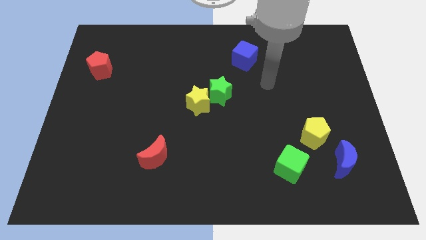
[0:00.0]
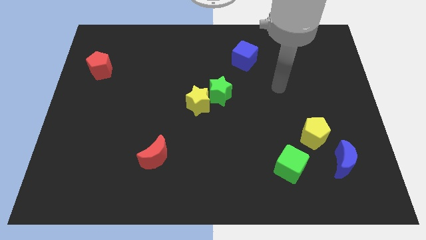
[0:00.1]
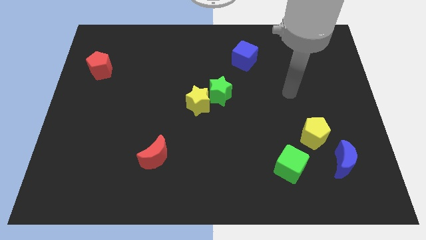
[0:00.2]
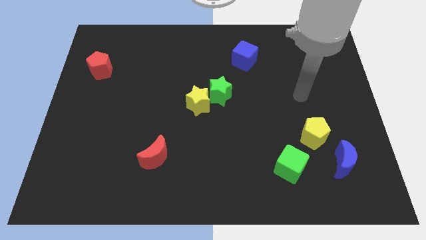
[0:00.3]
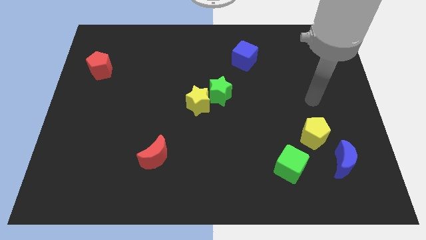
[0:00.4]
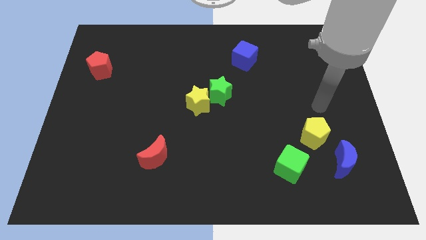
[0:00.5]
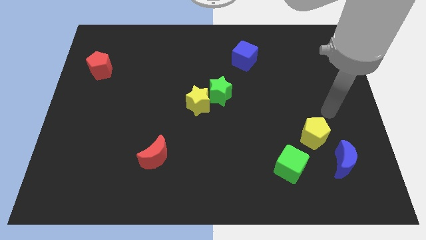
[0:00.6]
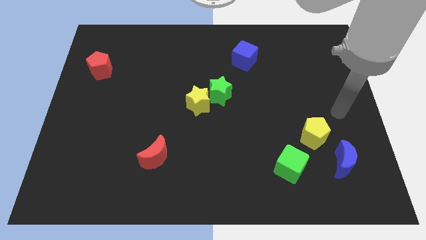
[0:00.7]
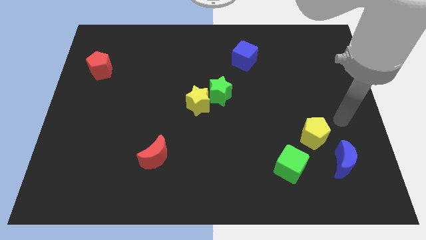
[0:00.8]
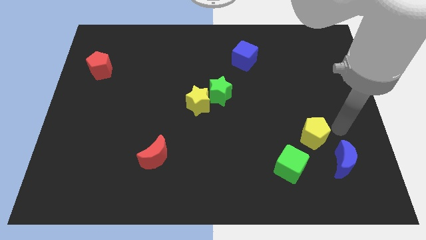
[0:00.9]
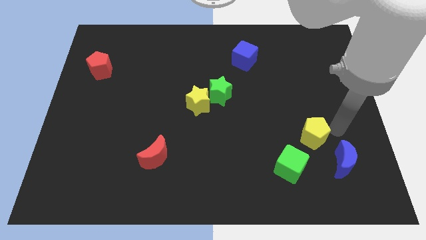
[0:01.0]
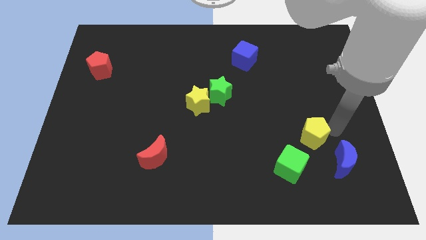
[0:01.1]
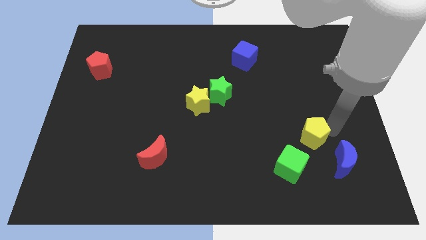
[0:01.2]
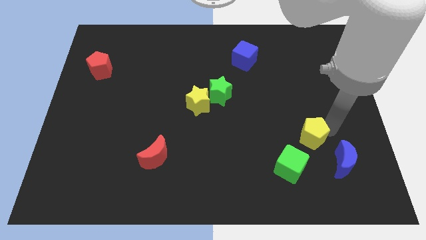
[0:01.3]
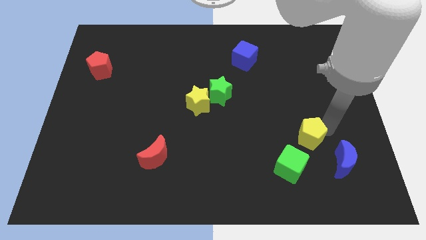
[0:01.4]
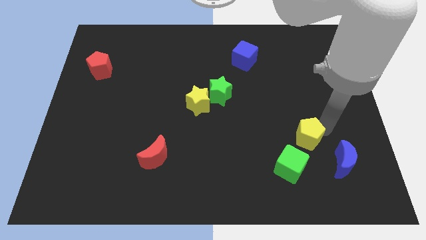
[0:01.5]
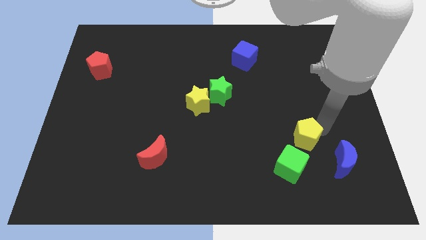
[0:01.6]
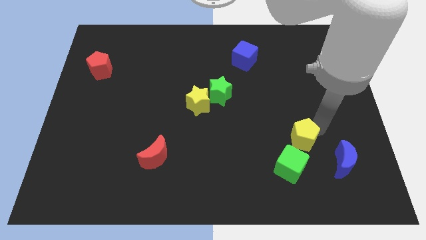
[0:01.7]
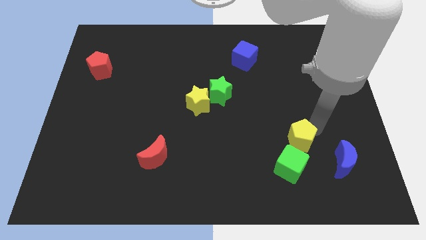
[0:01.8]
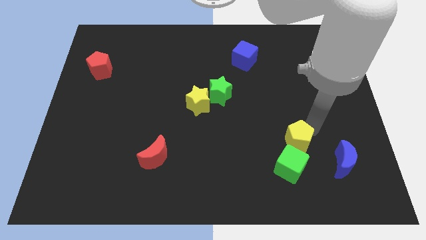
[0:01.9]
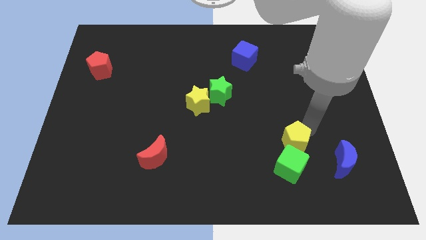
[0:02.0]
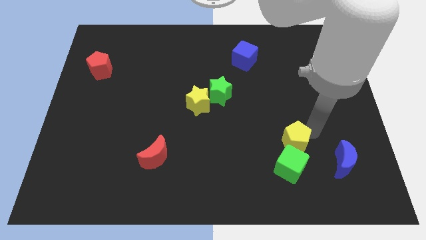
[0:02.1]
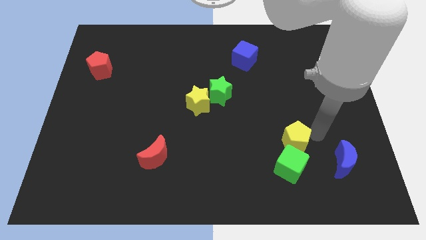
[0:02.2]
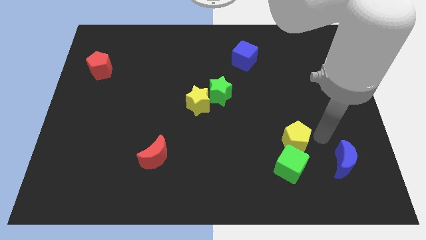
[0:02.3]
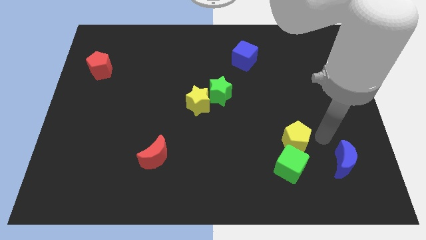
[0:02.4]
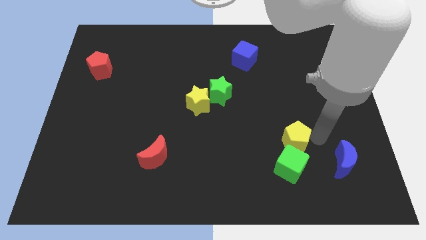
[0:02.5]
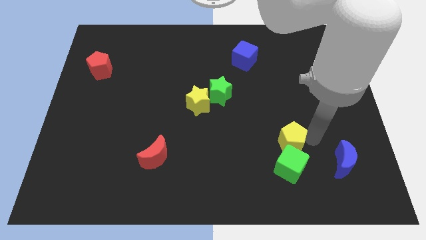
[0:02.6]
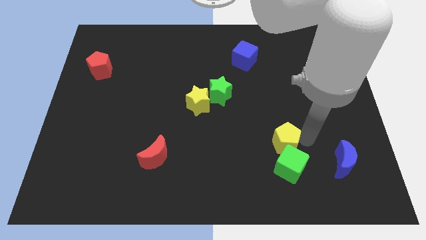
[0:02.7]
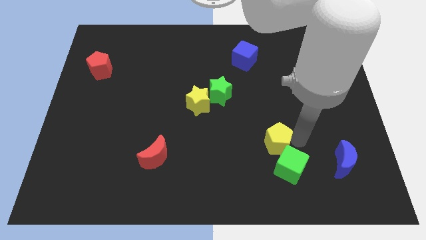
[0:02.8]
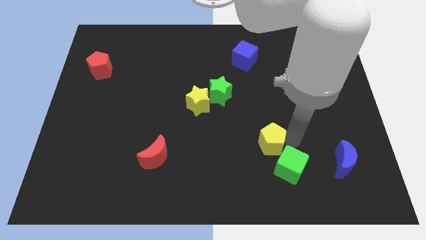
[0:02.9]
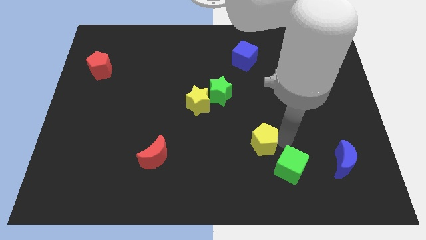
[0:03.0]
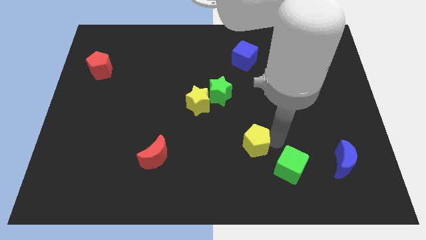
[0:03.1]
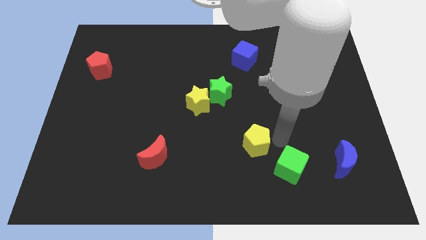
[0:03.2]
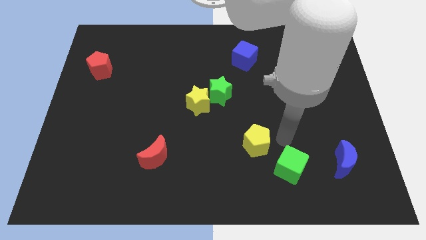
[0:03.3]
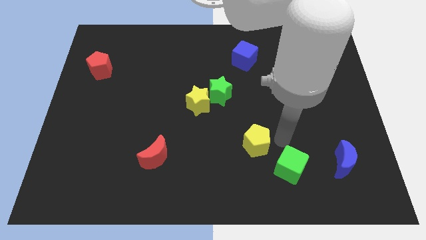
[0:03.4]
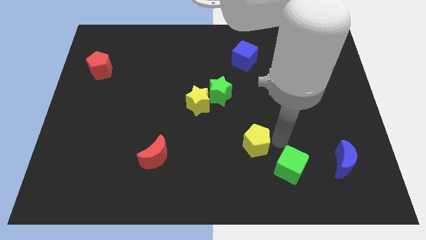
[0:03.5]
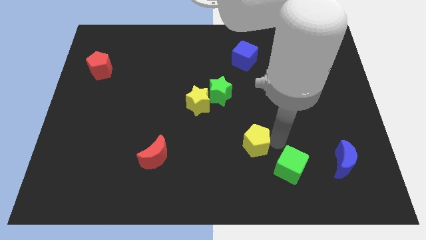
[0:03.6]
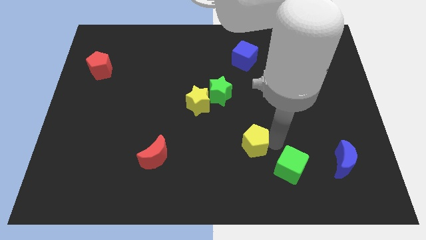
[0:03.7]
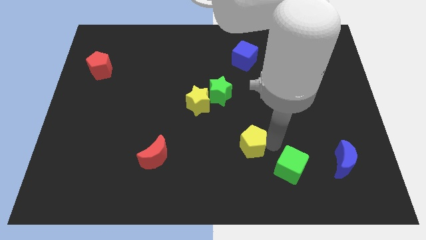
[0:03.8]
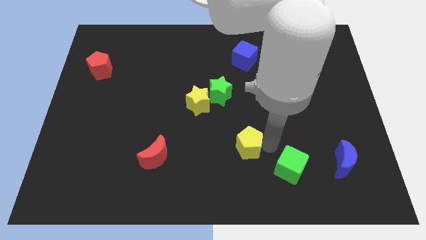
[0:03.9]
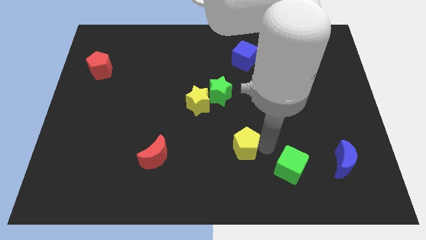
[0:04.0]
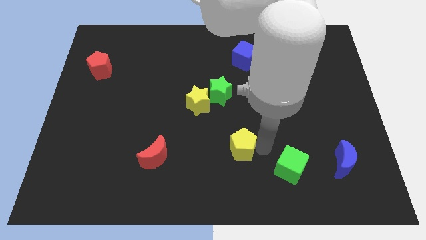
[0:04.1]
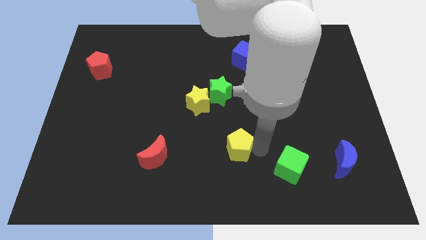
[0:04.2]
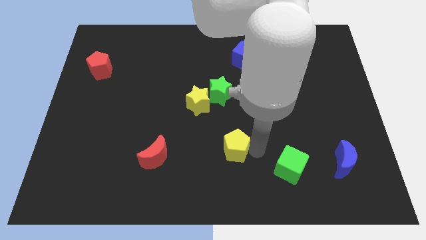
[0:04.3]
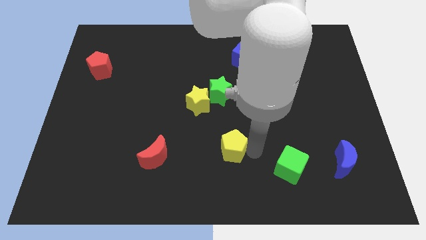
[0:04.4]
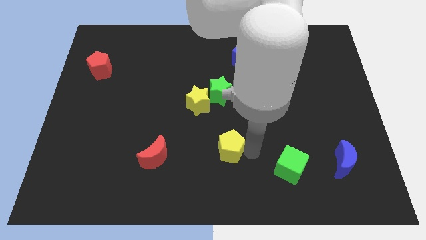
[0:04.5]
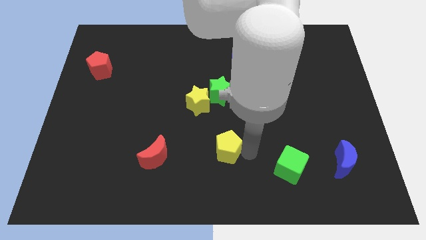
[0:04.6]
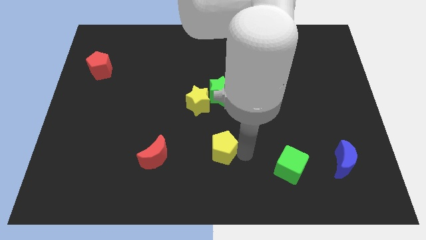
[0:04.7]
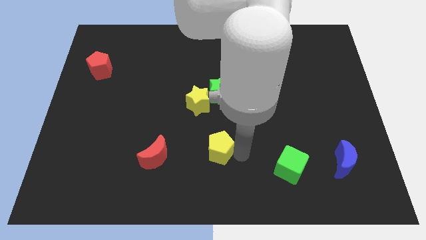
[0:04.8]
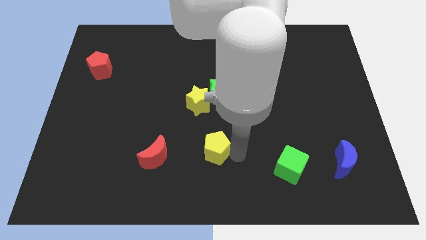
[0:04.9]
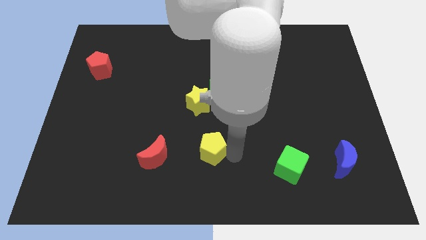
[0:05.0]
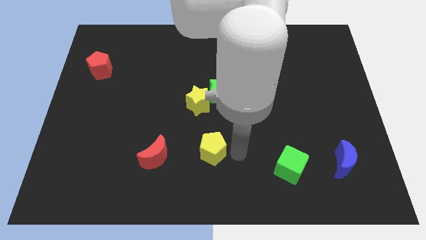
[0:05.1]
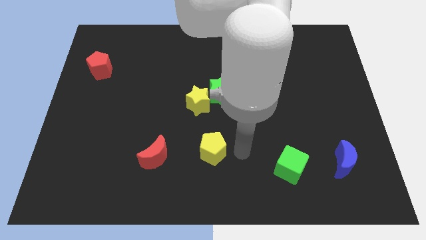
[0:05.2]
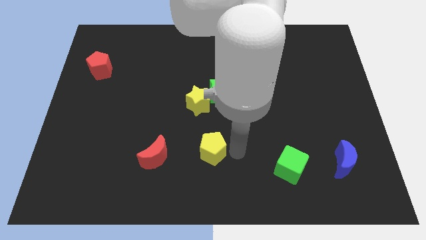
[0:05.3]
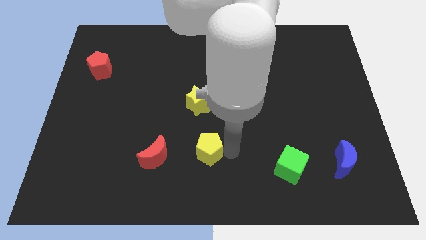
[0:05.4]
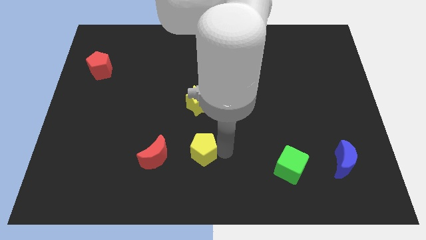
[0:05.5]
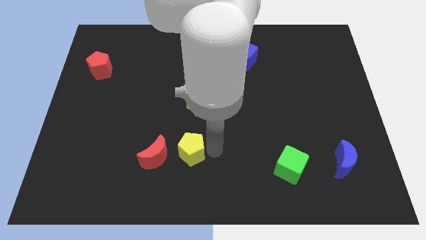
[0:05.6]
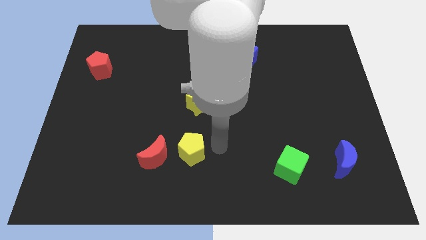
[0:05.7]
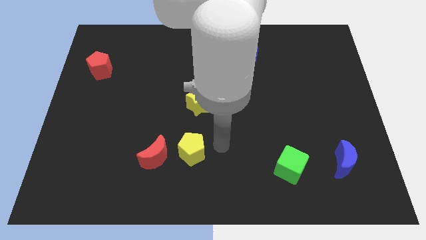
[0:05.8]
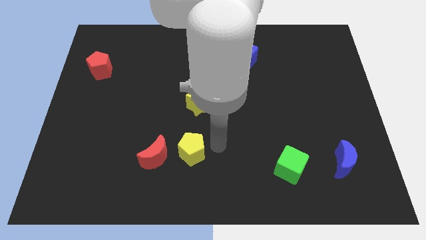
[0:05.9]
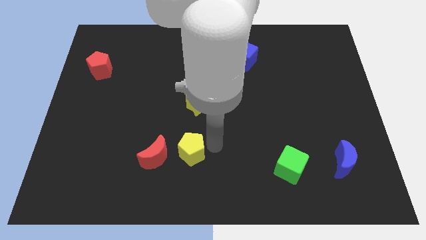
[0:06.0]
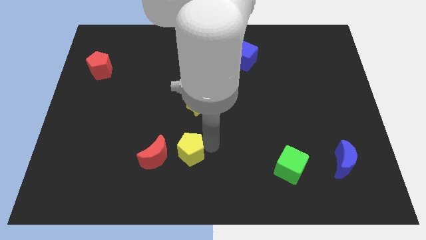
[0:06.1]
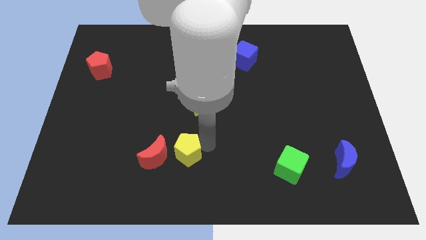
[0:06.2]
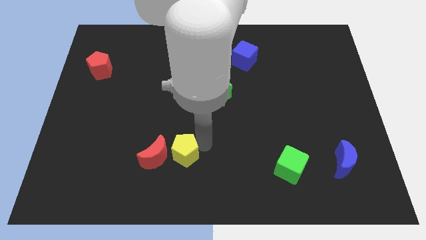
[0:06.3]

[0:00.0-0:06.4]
put the yellow pentagon close to the red moon
